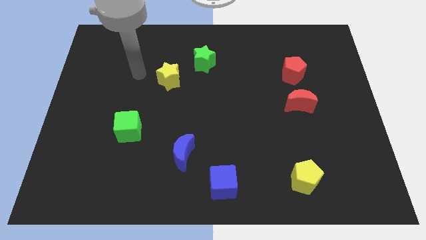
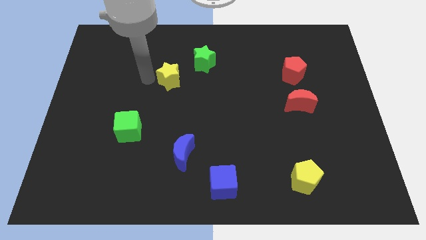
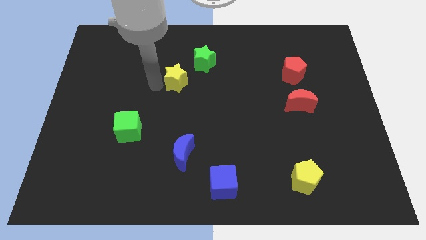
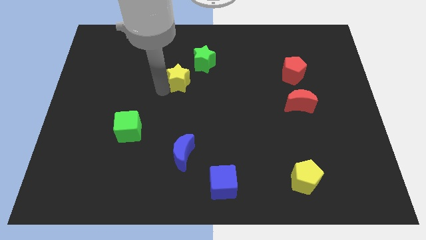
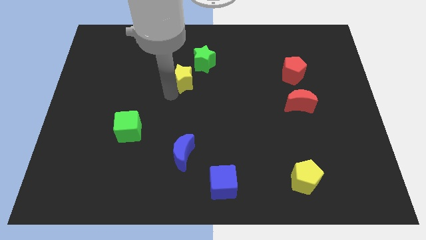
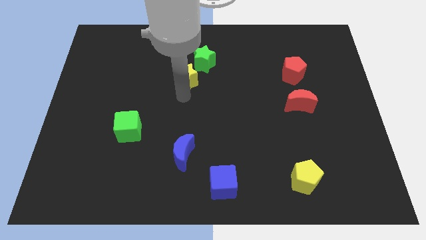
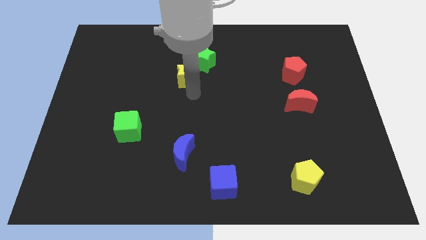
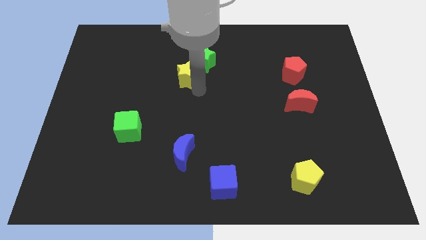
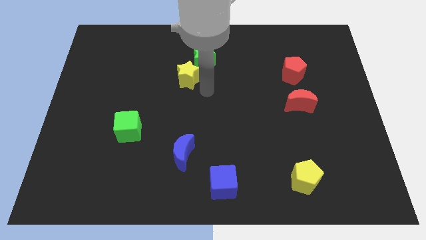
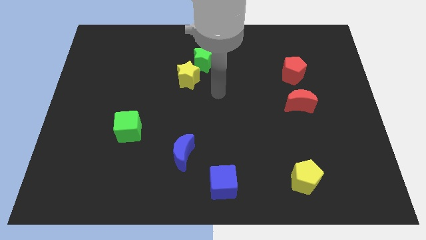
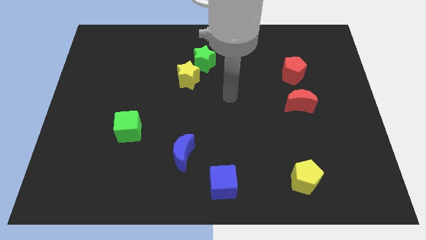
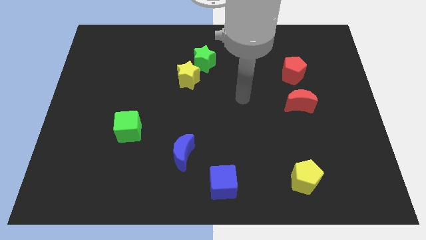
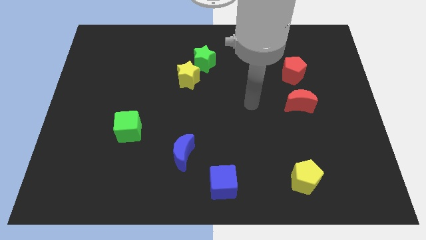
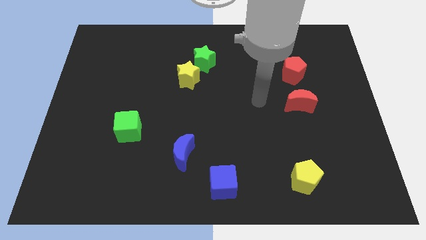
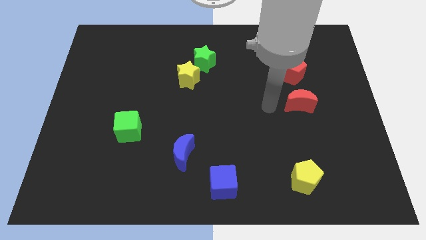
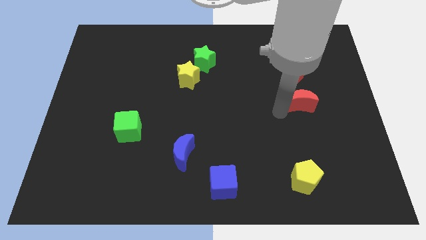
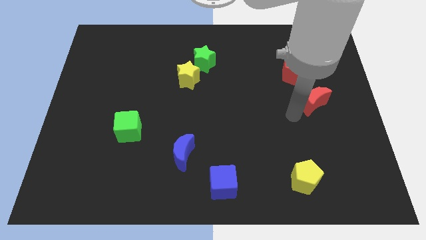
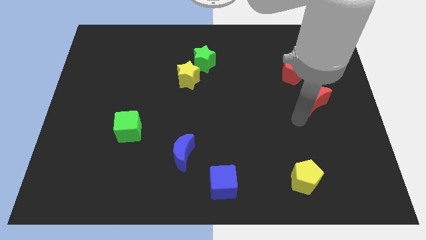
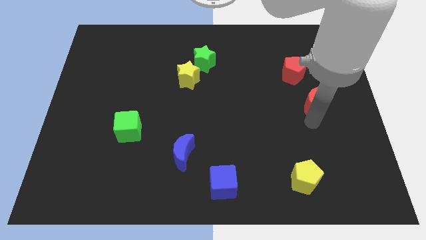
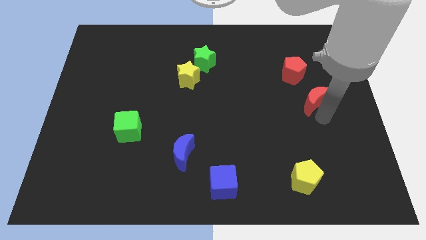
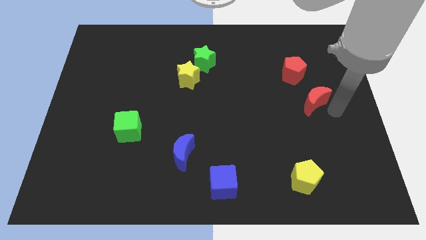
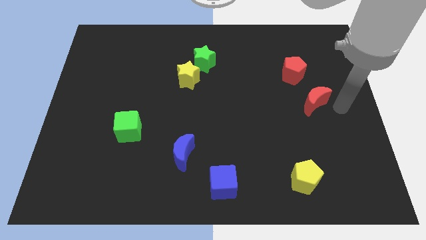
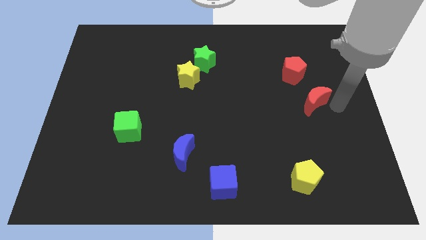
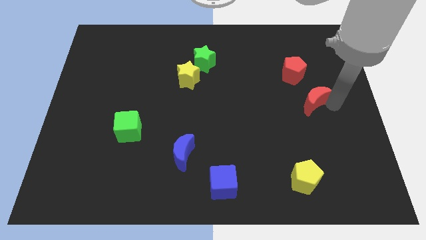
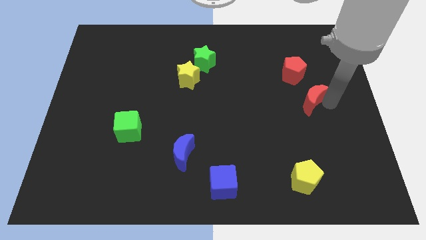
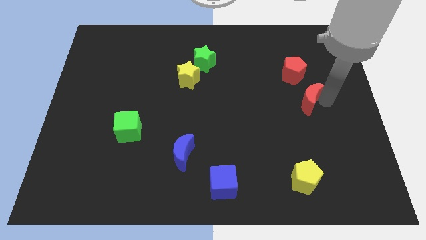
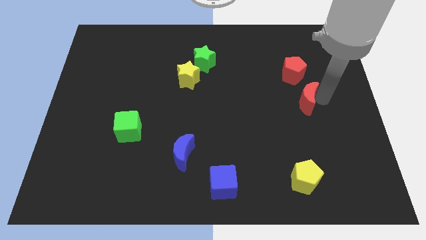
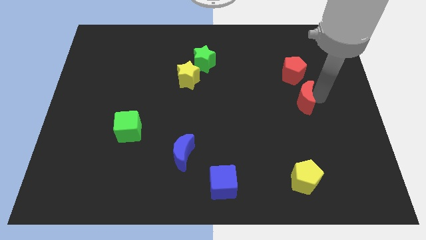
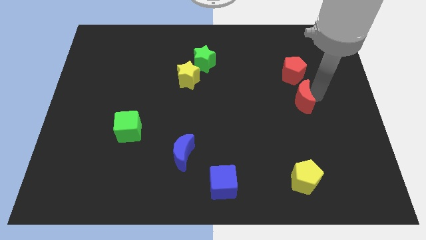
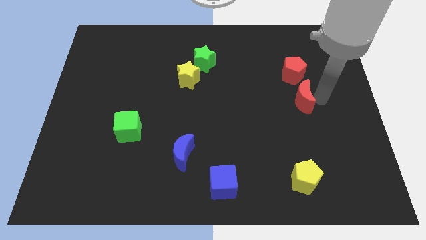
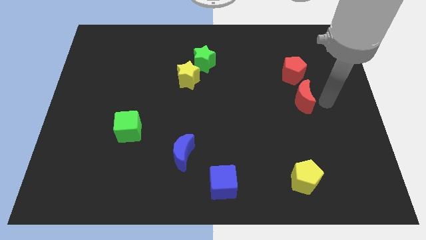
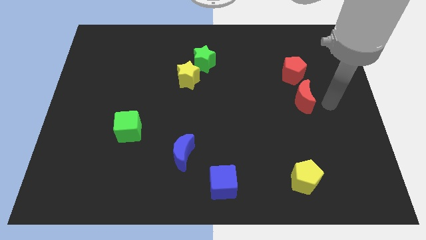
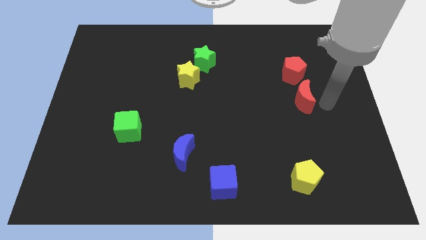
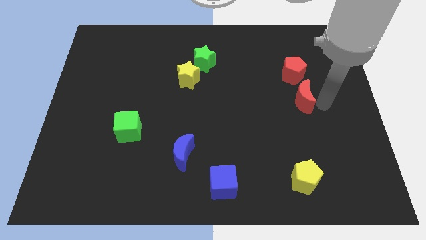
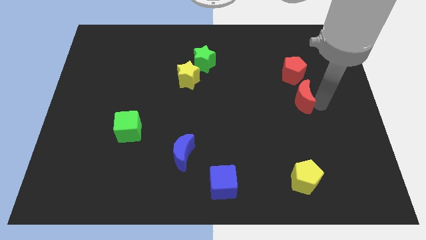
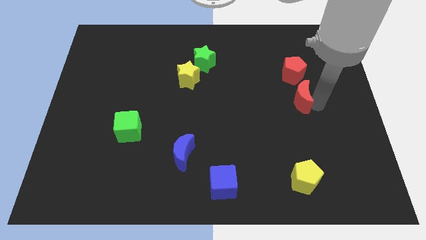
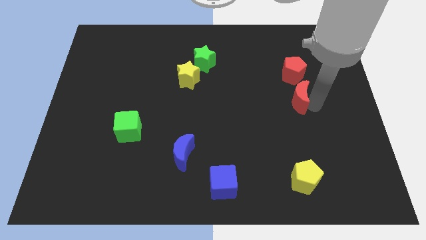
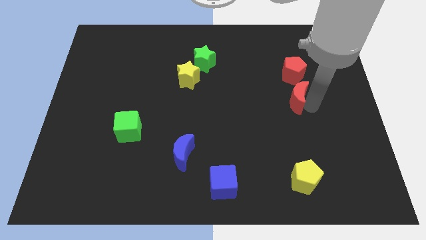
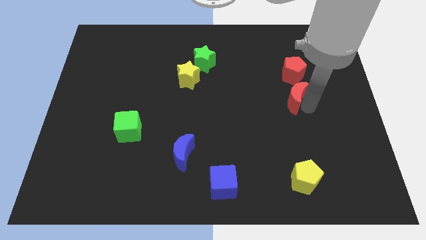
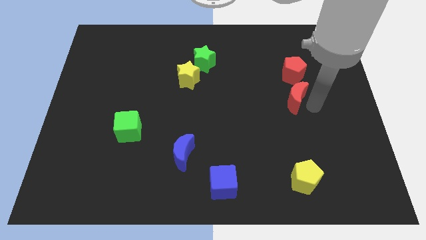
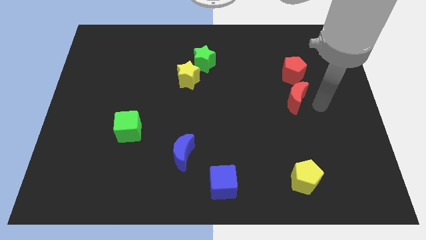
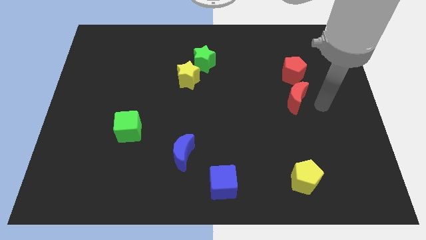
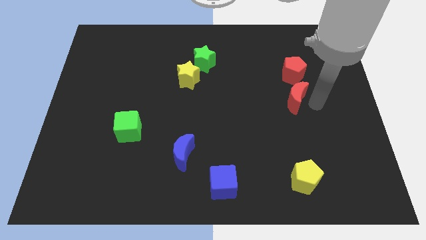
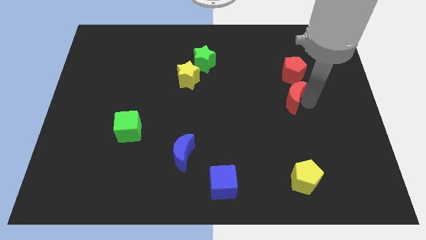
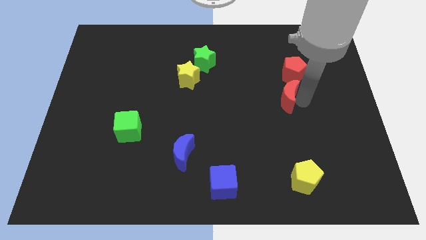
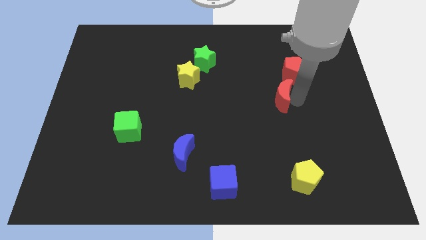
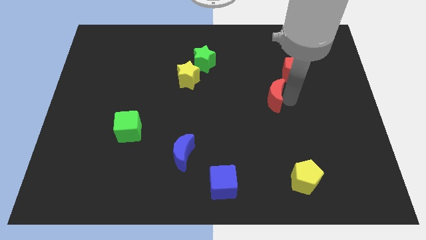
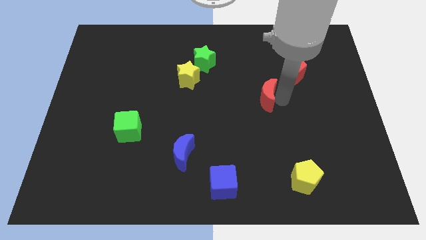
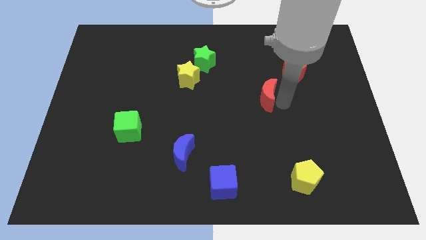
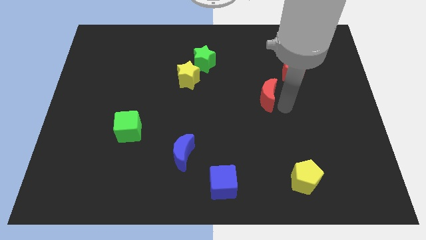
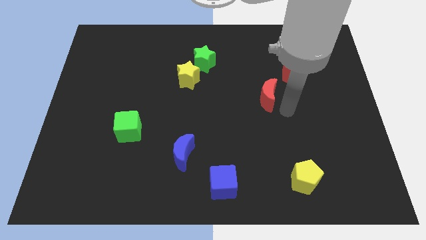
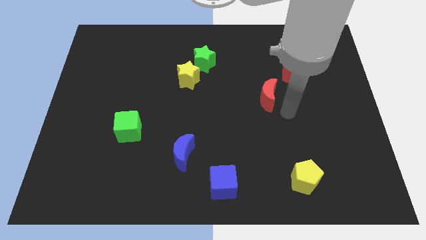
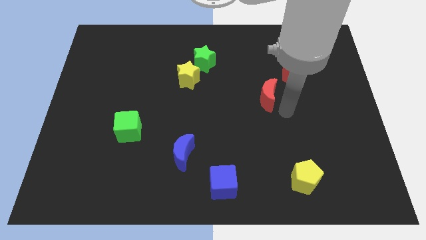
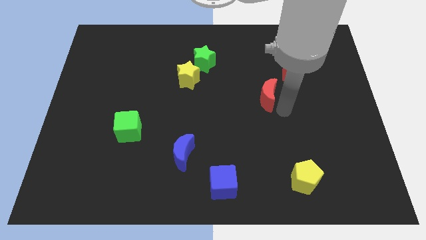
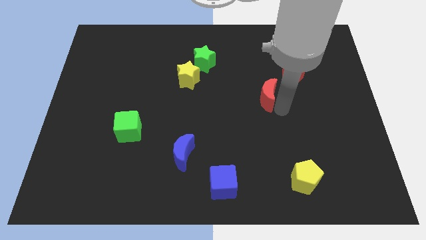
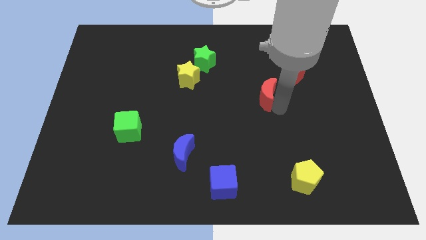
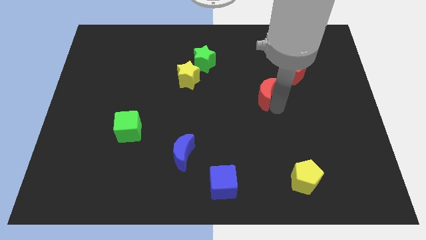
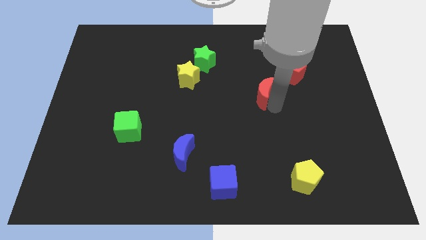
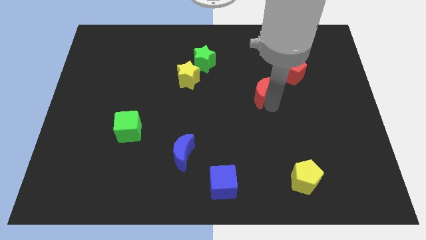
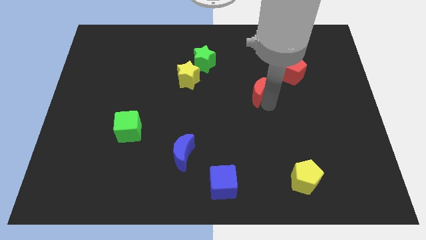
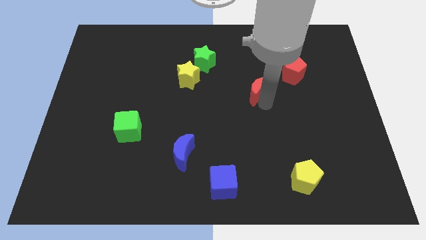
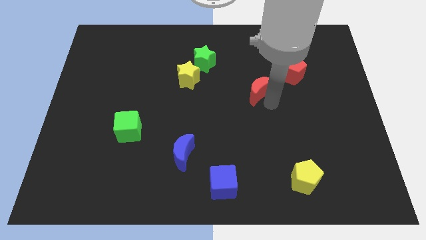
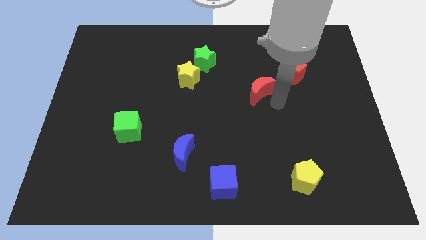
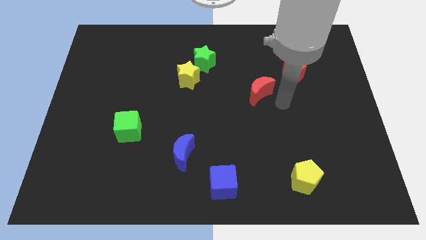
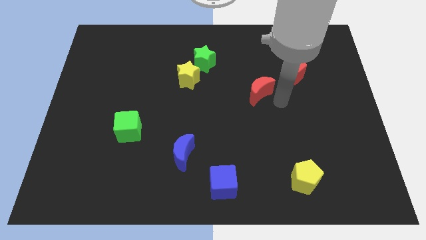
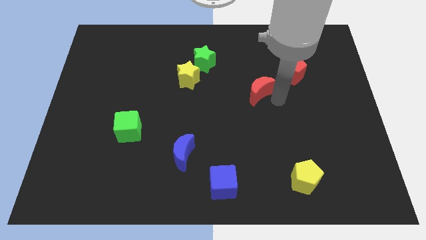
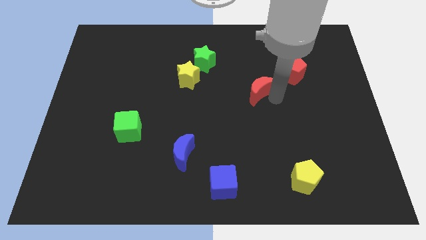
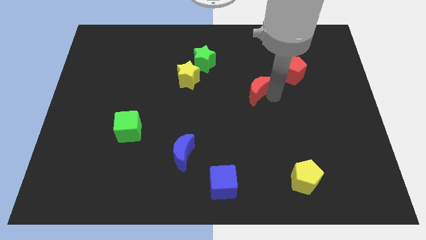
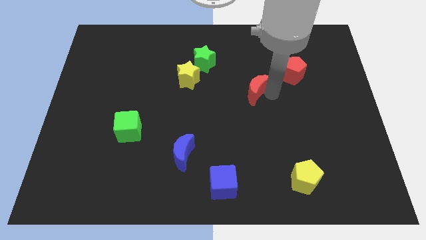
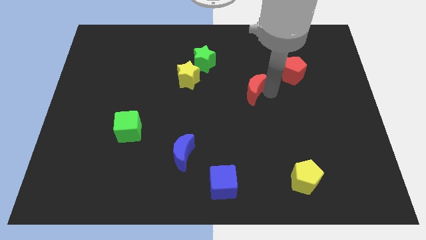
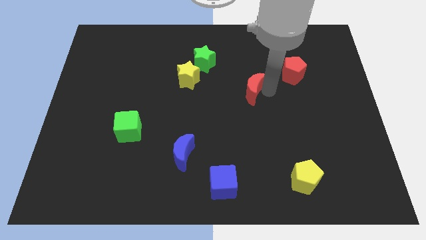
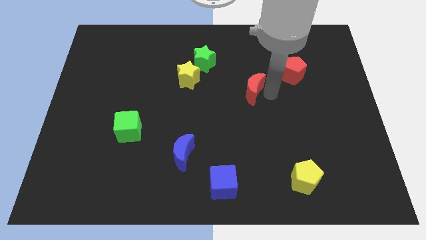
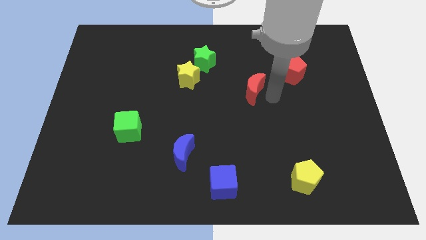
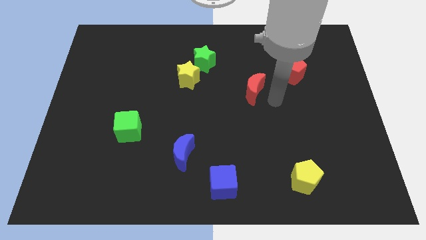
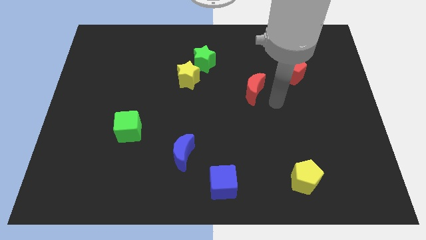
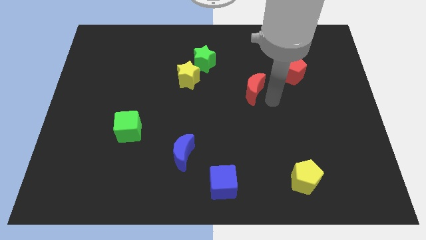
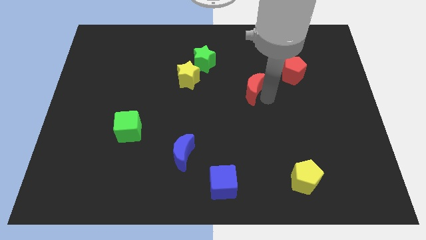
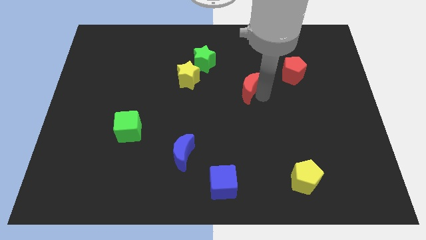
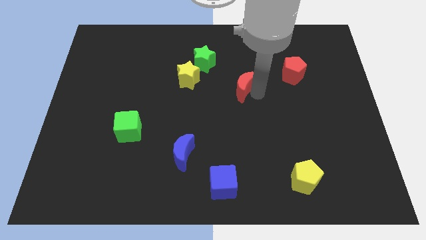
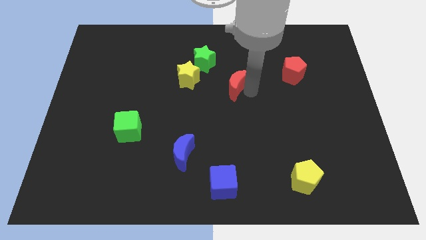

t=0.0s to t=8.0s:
slide the red moon to the bottom right side of the green star
